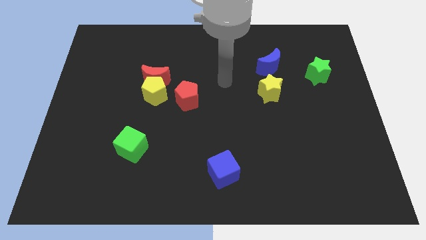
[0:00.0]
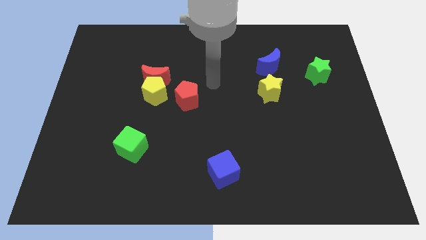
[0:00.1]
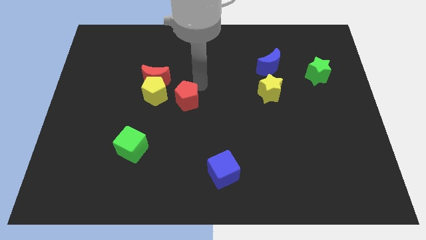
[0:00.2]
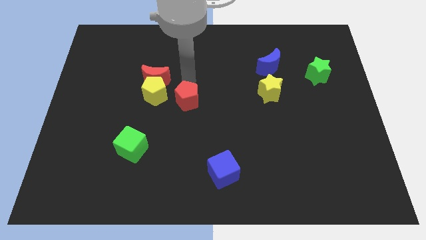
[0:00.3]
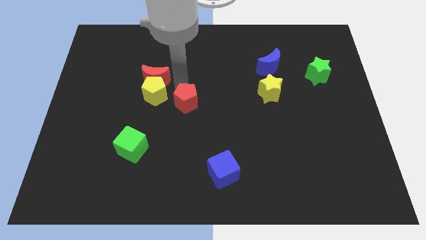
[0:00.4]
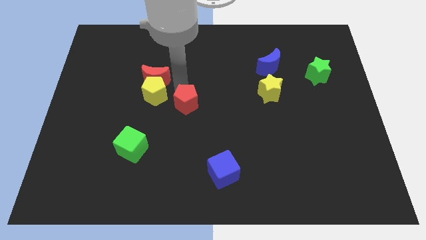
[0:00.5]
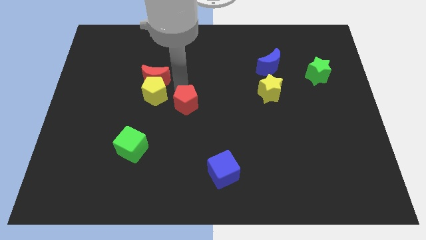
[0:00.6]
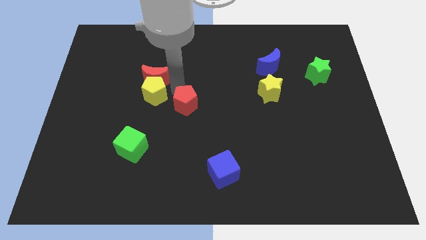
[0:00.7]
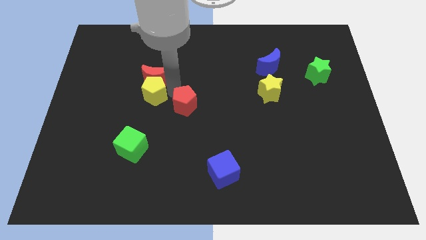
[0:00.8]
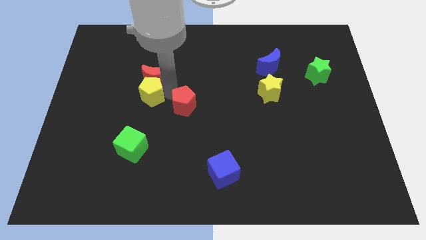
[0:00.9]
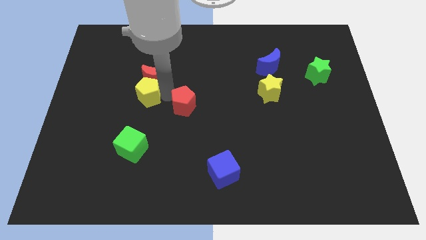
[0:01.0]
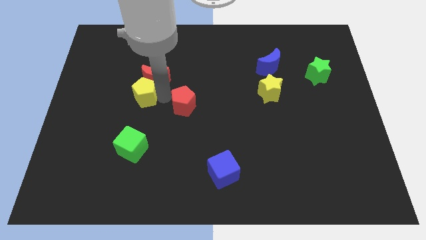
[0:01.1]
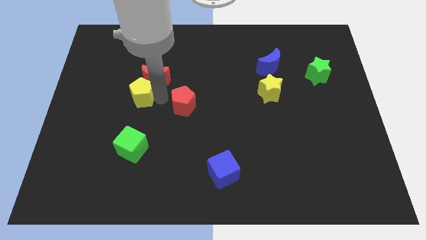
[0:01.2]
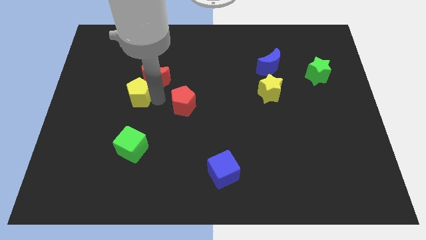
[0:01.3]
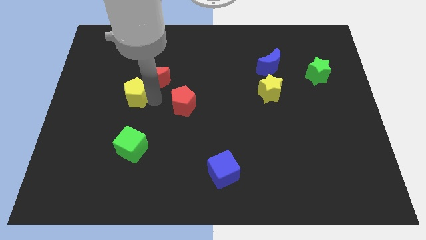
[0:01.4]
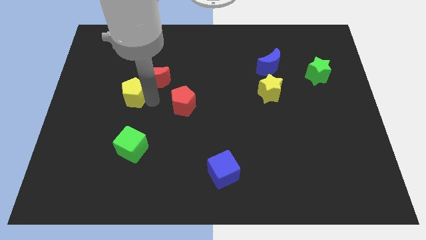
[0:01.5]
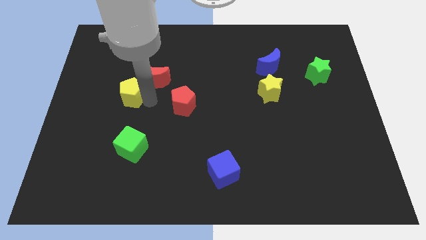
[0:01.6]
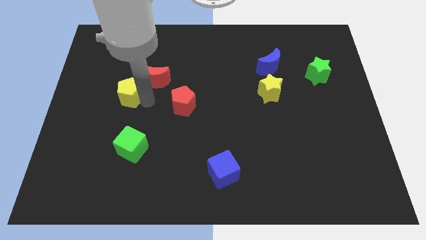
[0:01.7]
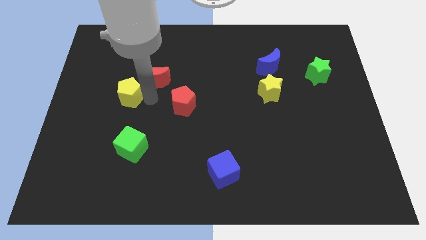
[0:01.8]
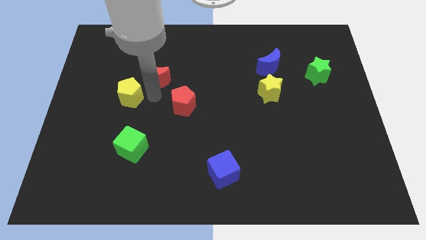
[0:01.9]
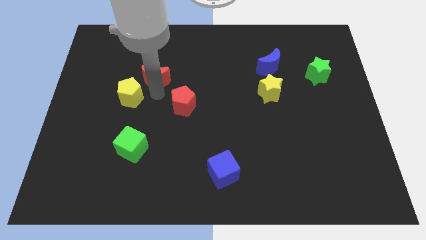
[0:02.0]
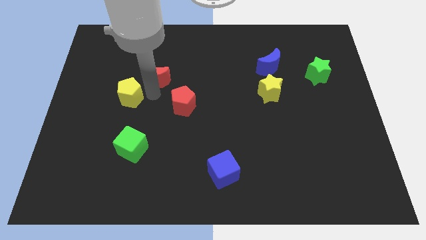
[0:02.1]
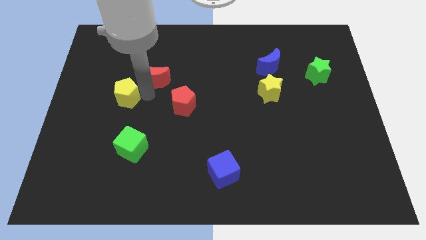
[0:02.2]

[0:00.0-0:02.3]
move the yellow pentagon away from the red moon and red pentagon

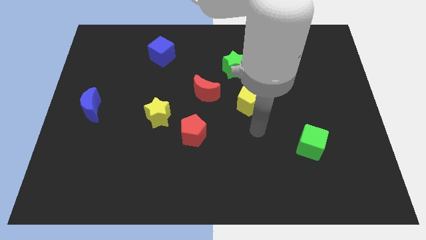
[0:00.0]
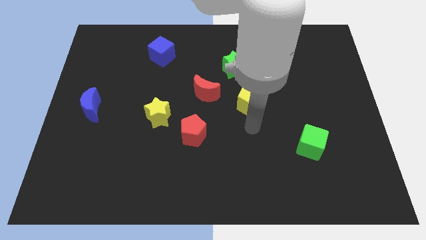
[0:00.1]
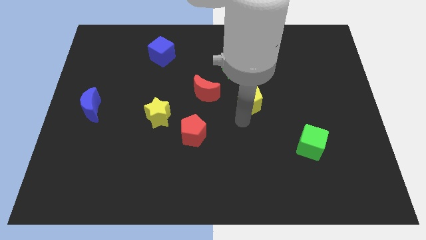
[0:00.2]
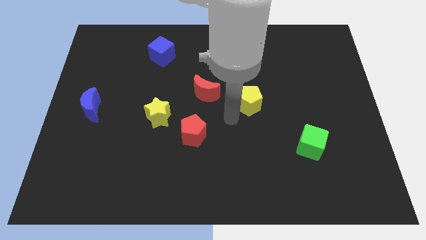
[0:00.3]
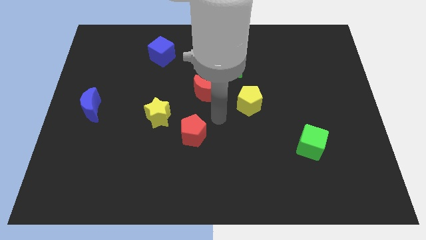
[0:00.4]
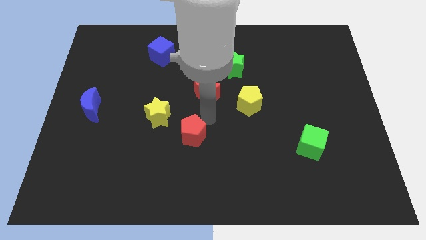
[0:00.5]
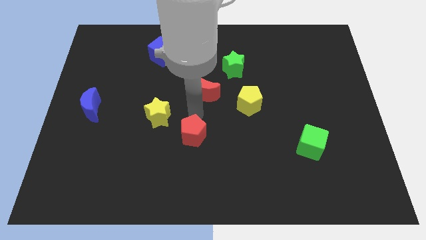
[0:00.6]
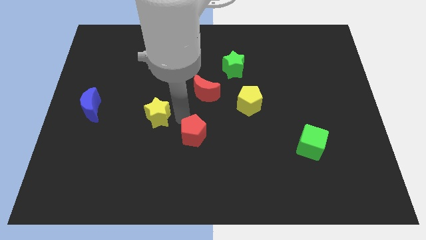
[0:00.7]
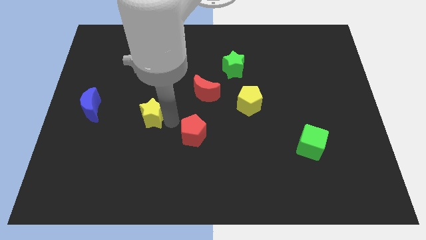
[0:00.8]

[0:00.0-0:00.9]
move the red pentagon away from the yellow star

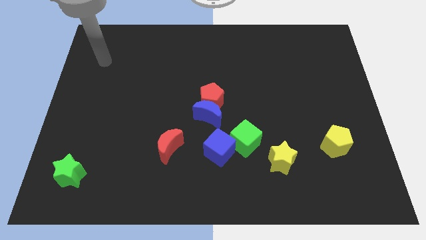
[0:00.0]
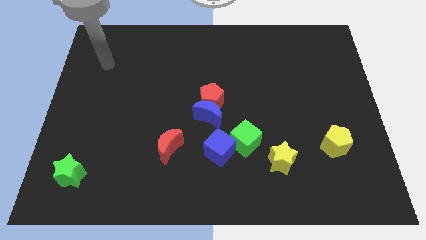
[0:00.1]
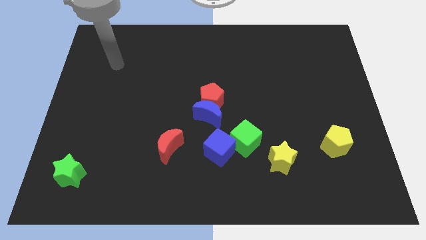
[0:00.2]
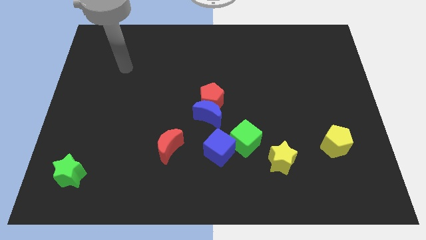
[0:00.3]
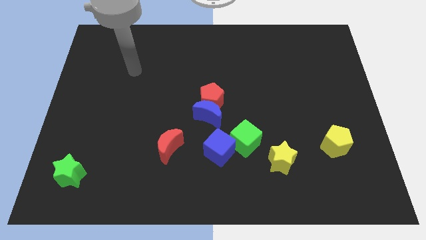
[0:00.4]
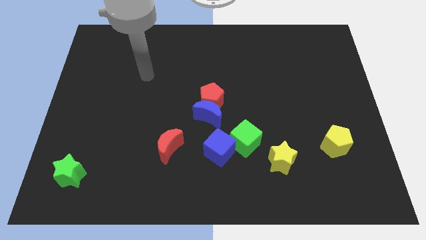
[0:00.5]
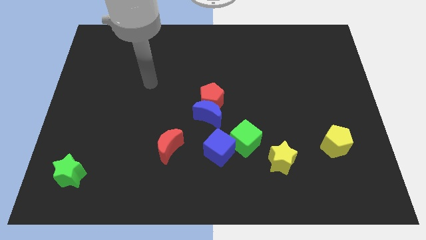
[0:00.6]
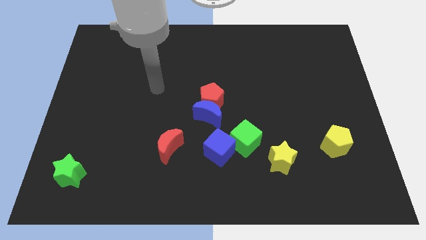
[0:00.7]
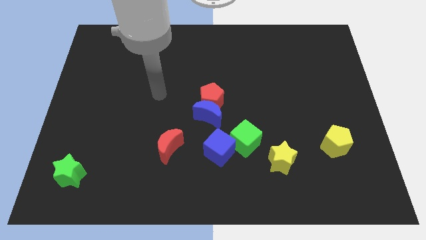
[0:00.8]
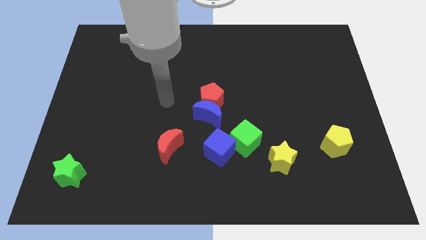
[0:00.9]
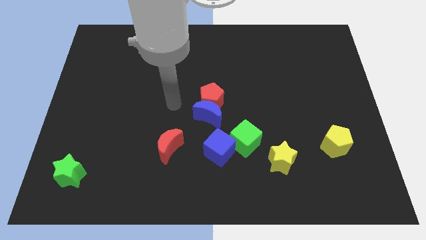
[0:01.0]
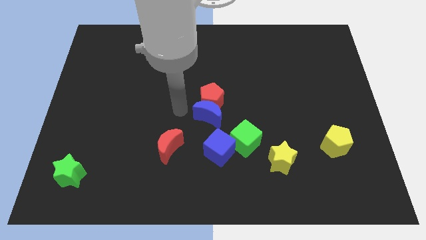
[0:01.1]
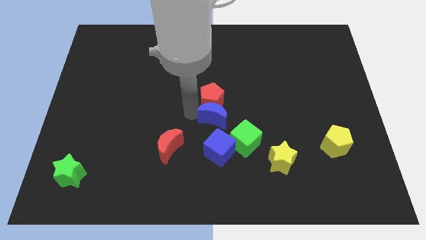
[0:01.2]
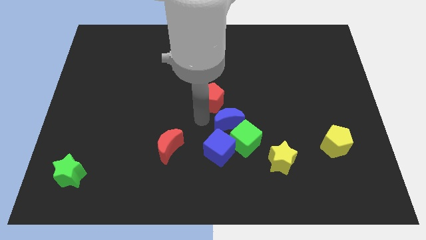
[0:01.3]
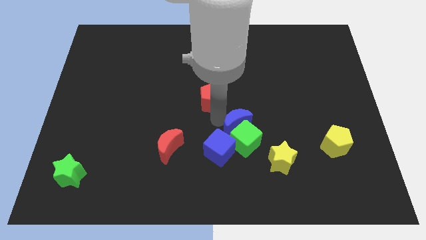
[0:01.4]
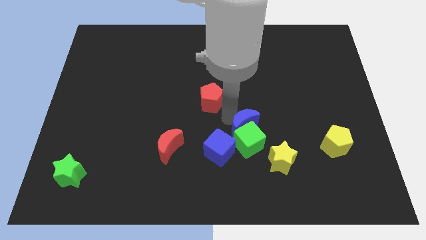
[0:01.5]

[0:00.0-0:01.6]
separate the red pentagon from the blue moon

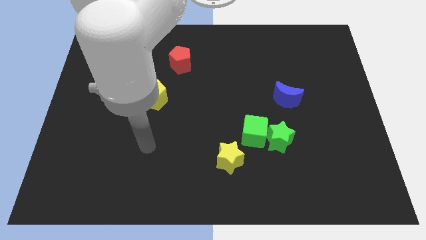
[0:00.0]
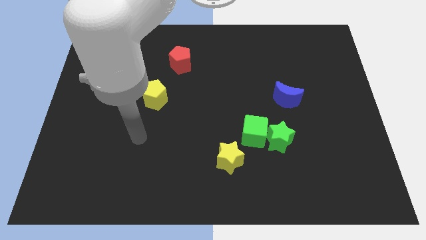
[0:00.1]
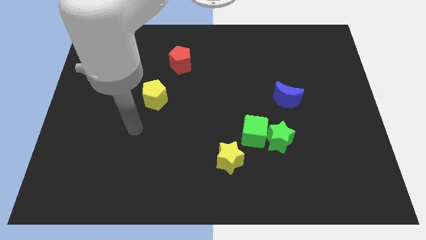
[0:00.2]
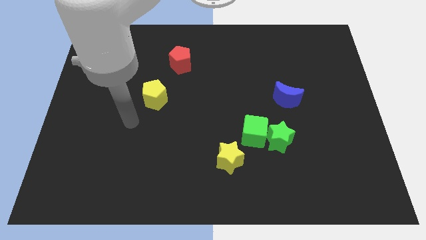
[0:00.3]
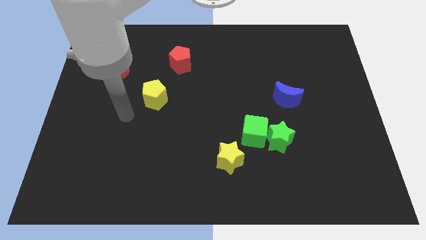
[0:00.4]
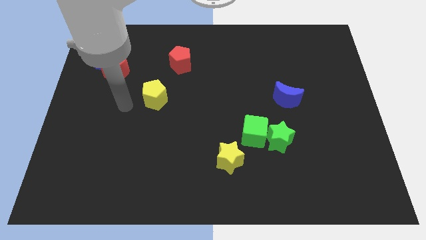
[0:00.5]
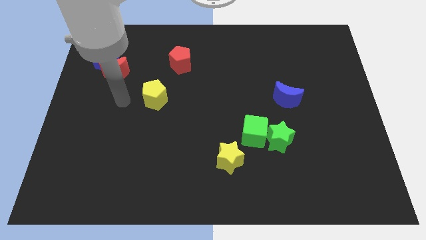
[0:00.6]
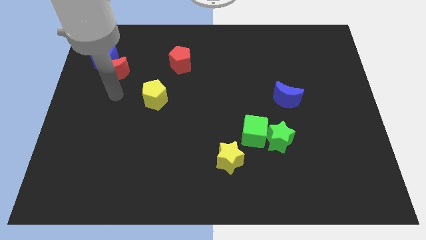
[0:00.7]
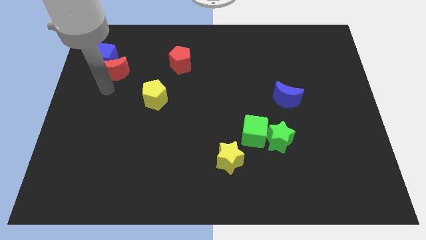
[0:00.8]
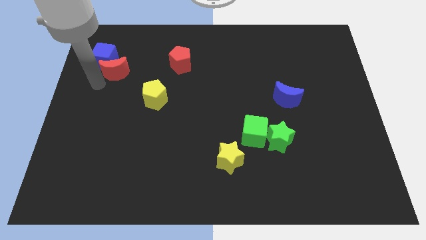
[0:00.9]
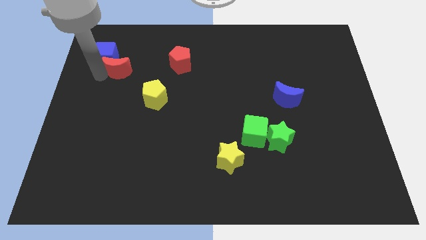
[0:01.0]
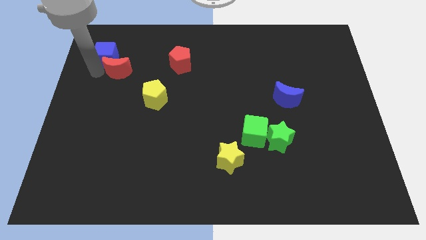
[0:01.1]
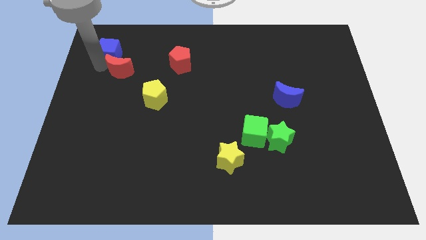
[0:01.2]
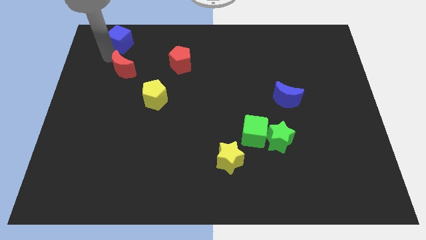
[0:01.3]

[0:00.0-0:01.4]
pull the red moon apart from the blue cube

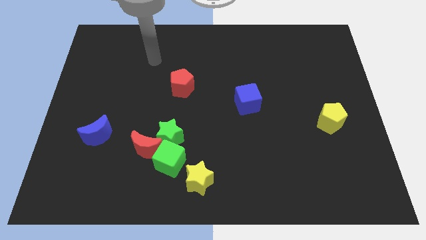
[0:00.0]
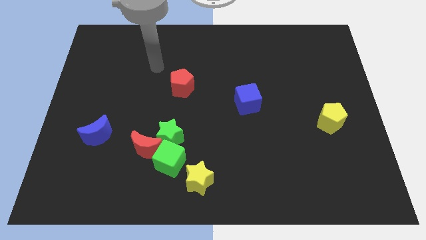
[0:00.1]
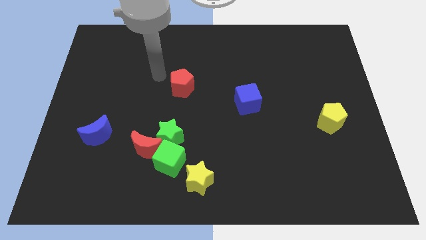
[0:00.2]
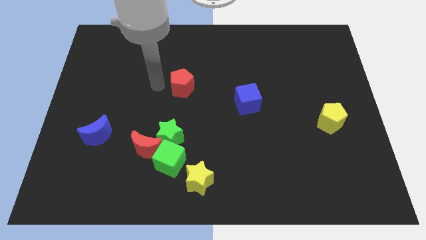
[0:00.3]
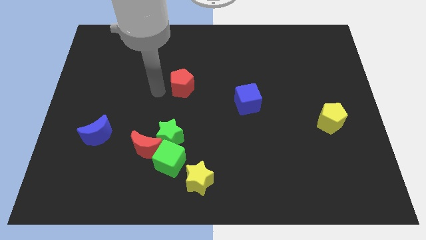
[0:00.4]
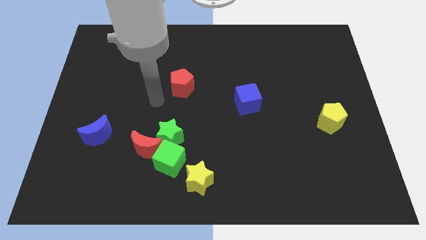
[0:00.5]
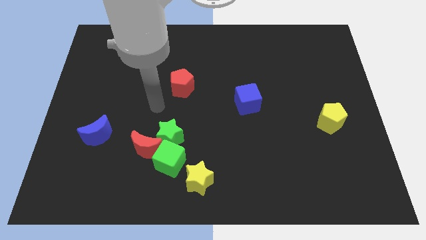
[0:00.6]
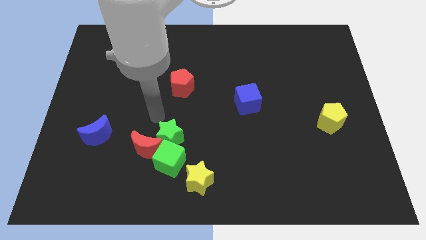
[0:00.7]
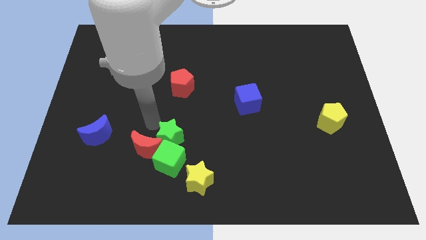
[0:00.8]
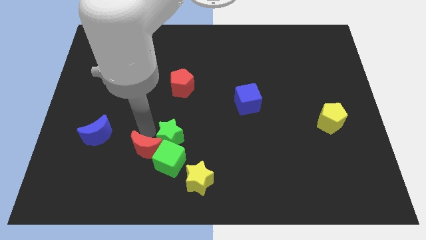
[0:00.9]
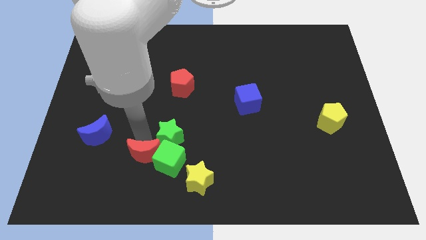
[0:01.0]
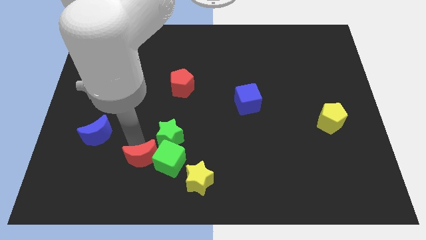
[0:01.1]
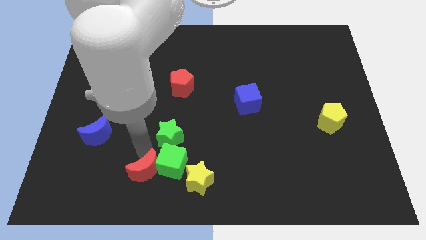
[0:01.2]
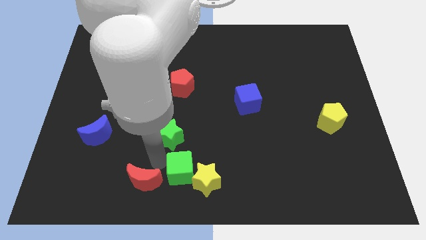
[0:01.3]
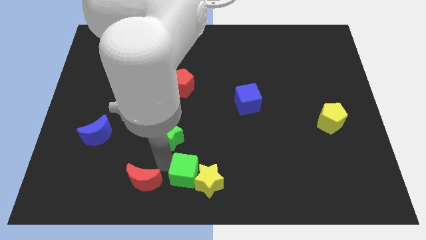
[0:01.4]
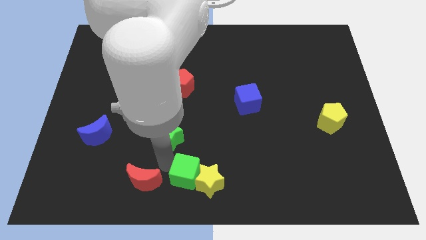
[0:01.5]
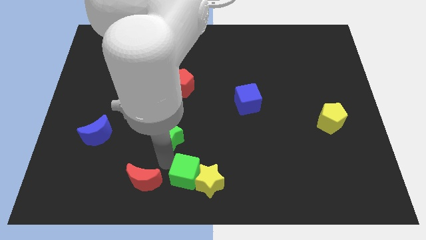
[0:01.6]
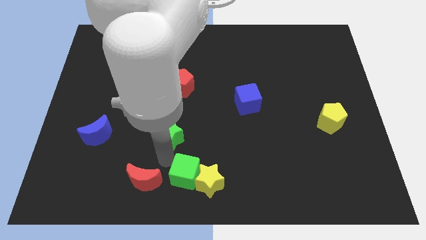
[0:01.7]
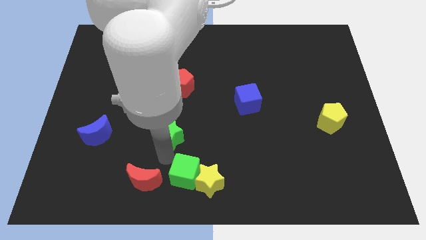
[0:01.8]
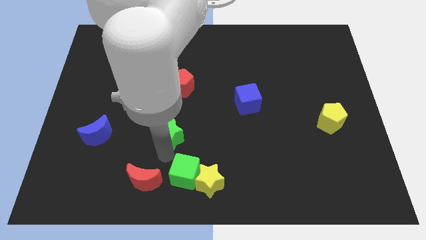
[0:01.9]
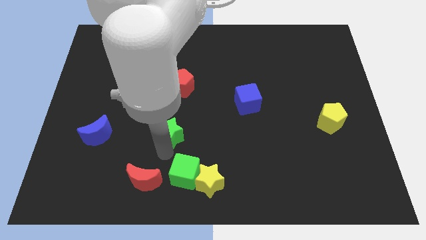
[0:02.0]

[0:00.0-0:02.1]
separate the green star from the red moon and green cube

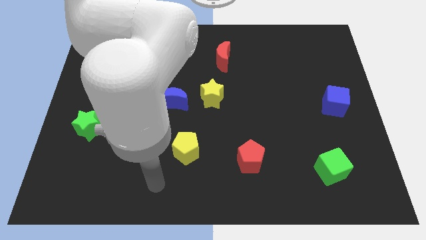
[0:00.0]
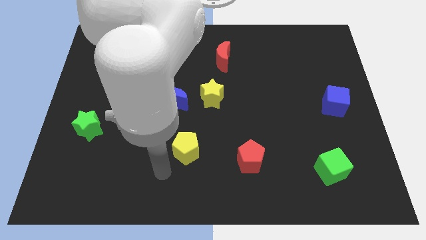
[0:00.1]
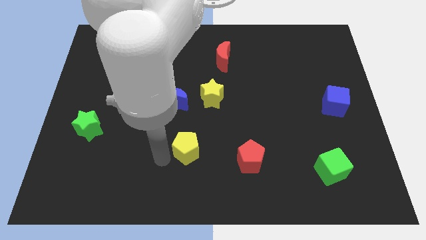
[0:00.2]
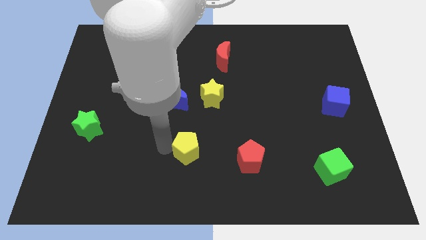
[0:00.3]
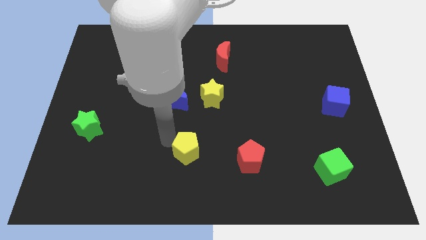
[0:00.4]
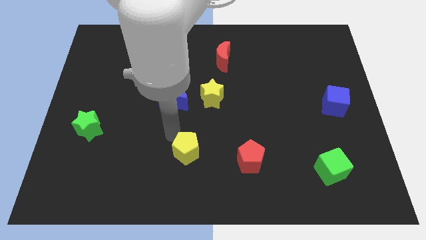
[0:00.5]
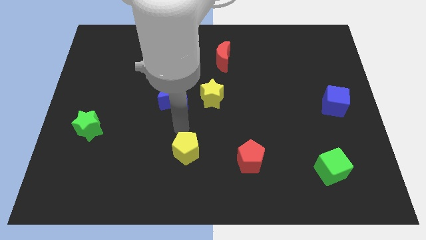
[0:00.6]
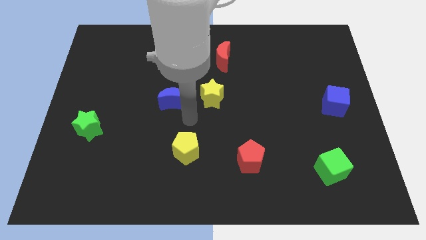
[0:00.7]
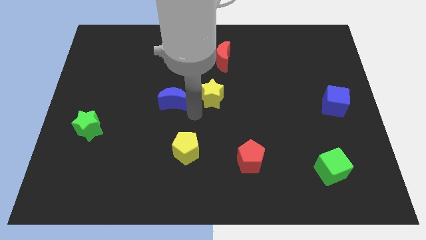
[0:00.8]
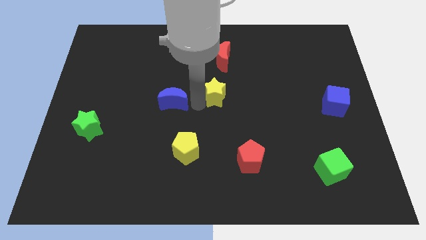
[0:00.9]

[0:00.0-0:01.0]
pull the blue moon apart from the yellow star
